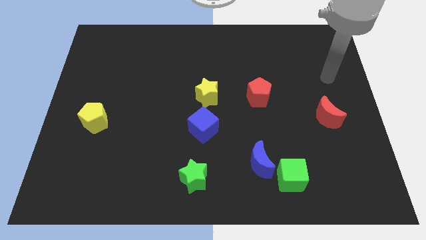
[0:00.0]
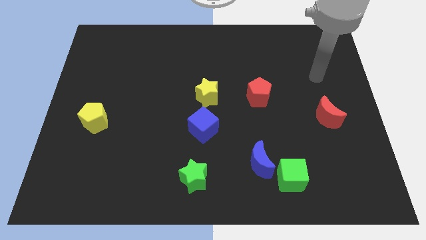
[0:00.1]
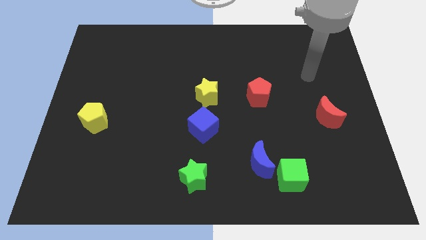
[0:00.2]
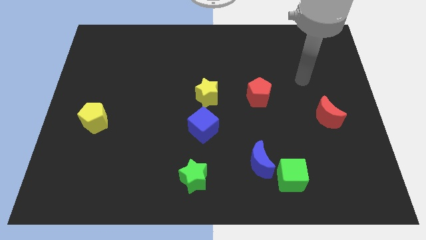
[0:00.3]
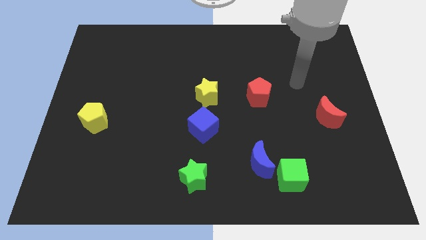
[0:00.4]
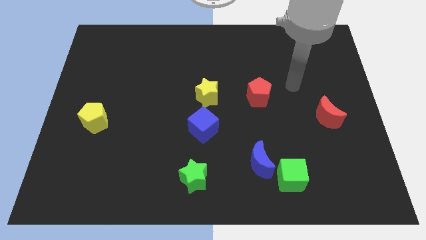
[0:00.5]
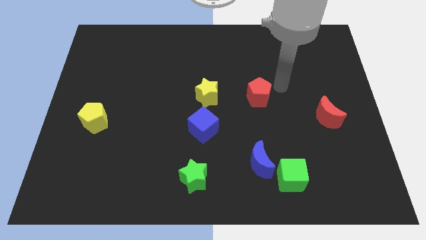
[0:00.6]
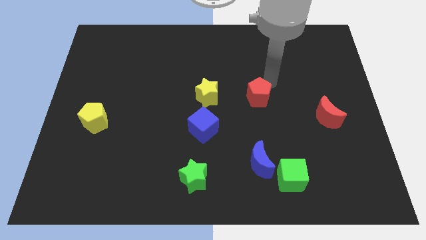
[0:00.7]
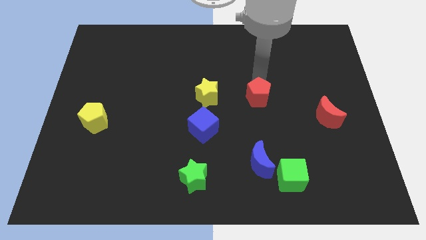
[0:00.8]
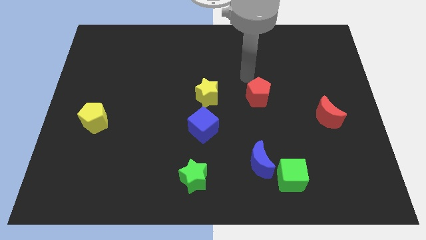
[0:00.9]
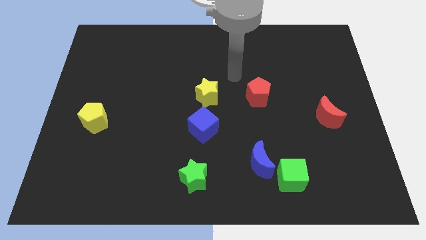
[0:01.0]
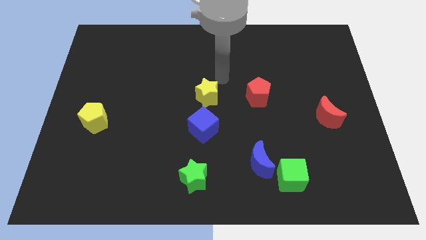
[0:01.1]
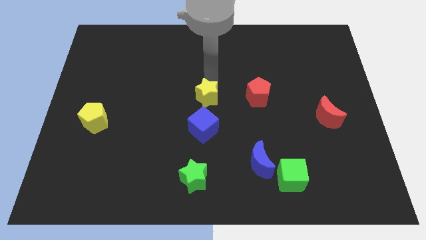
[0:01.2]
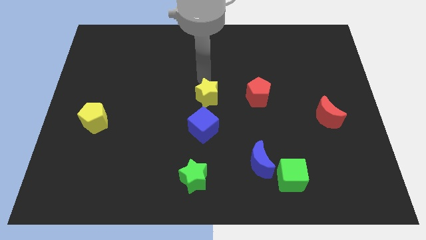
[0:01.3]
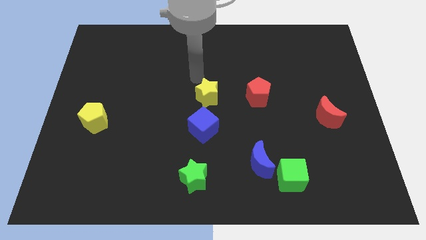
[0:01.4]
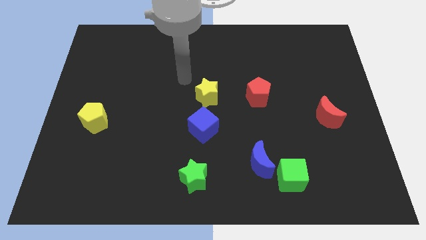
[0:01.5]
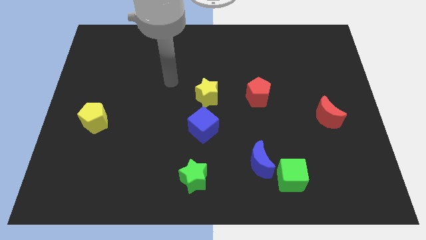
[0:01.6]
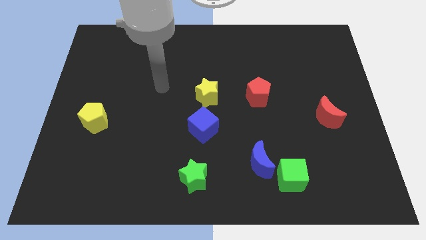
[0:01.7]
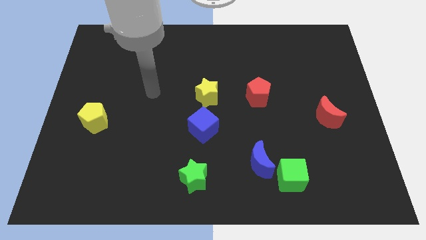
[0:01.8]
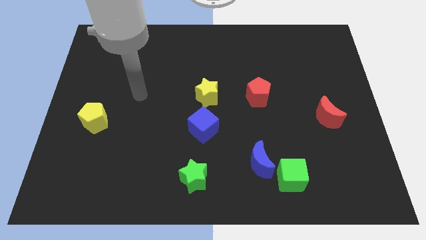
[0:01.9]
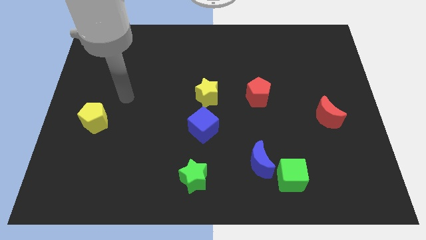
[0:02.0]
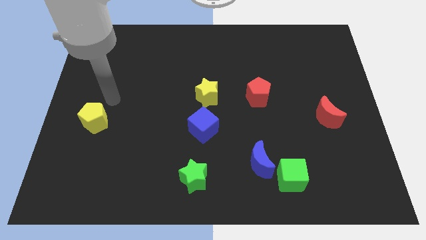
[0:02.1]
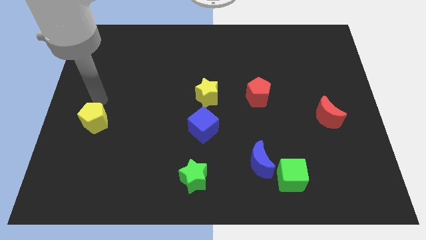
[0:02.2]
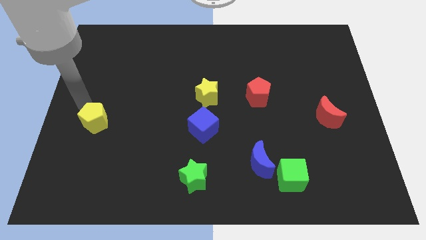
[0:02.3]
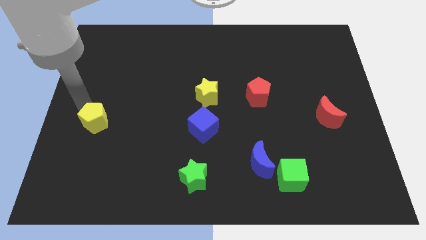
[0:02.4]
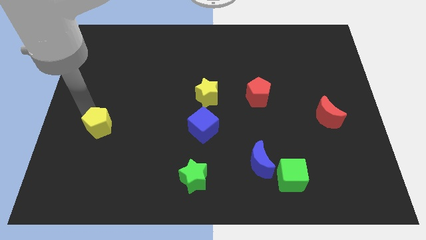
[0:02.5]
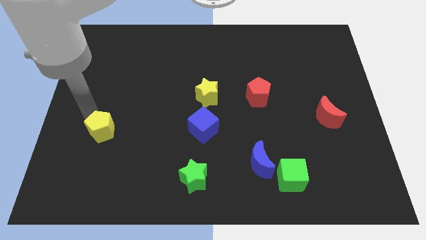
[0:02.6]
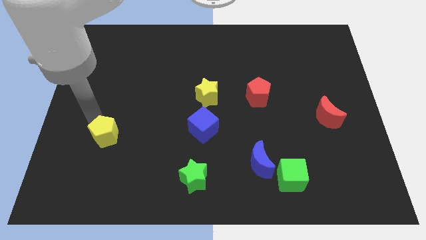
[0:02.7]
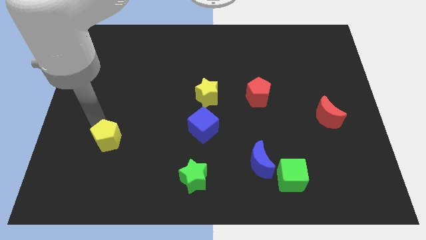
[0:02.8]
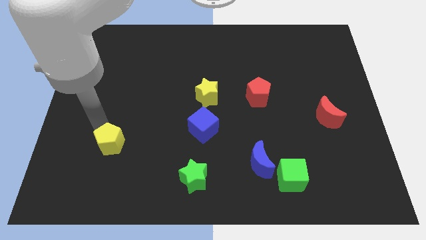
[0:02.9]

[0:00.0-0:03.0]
push the yellow pentagon downwards and then to the right slightly

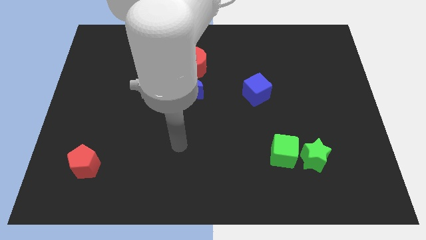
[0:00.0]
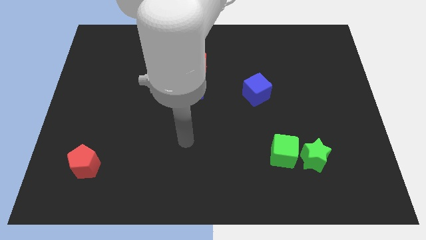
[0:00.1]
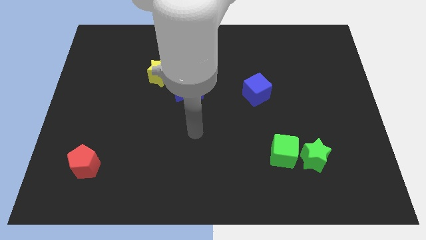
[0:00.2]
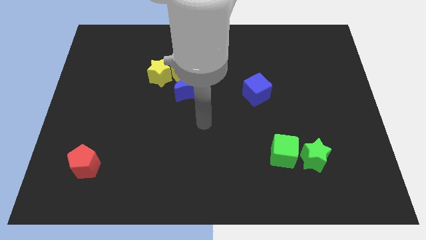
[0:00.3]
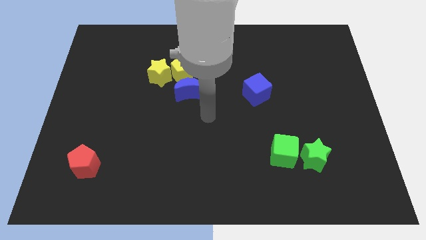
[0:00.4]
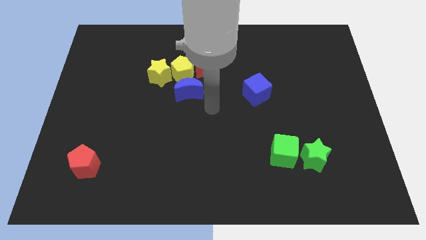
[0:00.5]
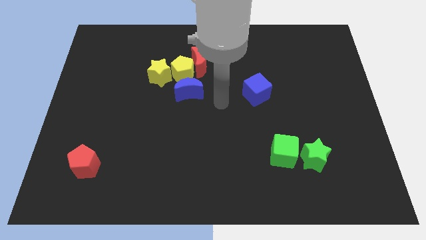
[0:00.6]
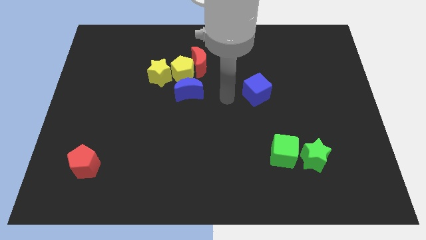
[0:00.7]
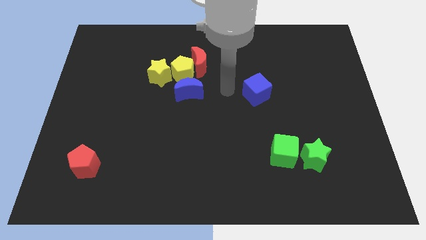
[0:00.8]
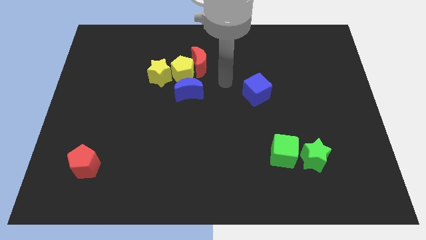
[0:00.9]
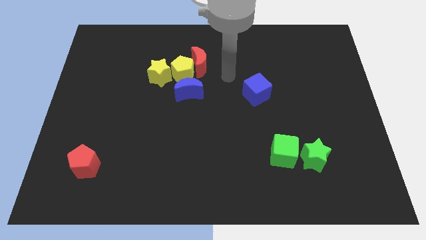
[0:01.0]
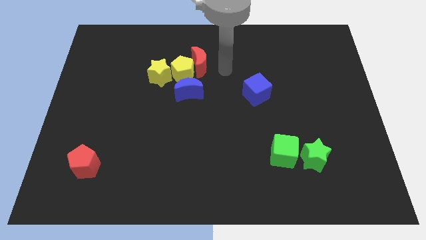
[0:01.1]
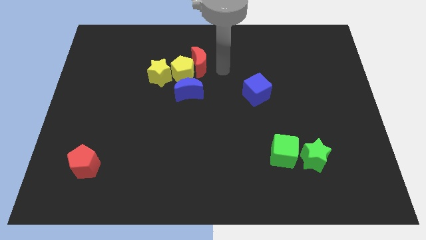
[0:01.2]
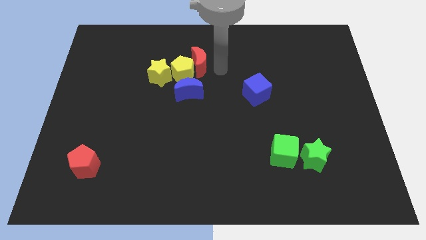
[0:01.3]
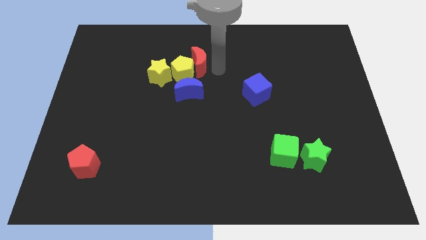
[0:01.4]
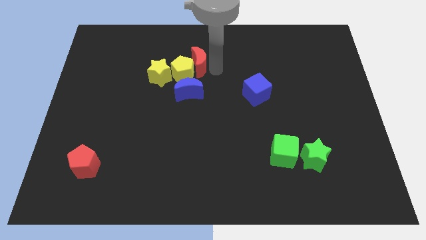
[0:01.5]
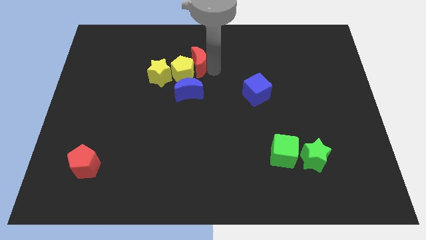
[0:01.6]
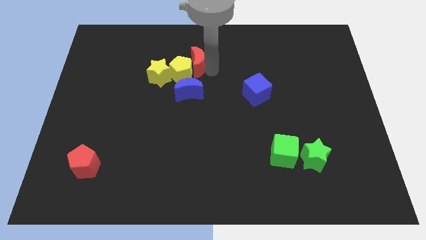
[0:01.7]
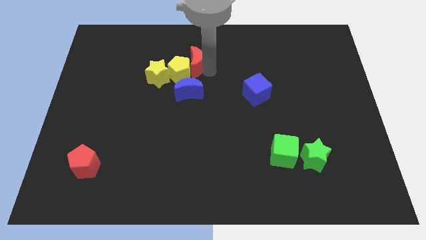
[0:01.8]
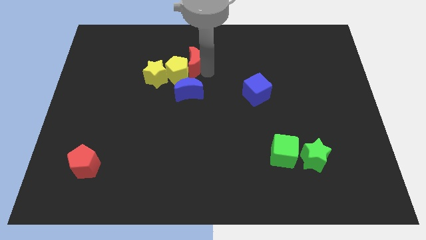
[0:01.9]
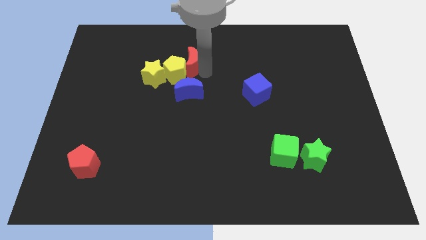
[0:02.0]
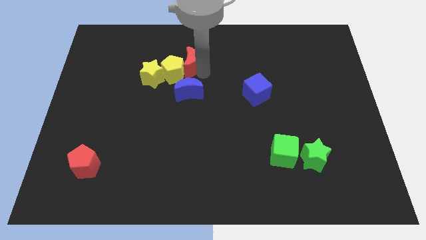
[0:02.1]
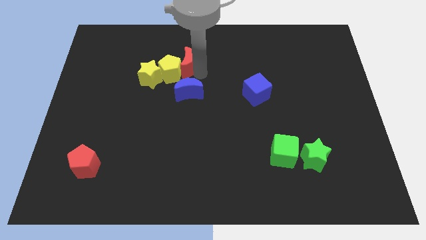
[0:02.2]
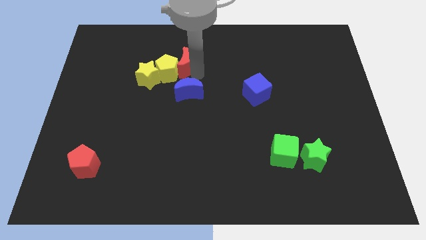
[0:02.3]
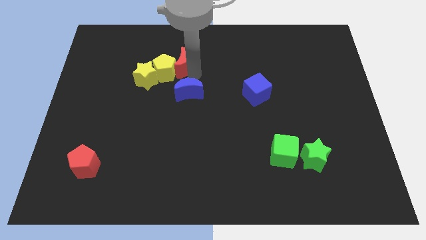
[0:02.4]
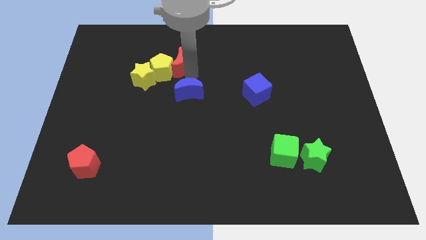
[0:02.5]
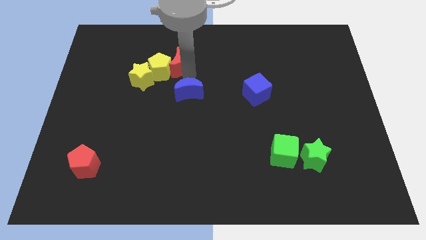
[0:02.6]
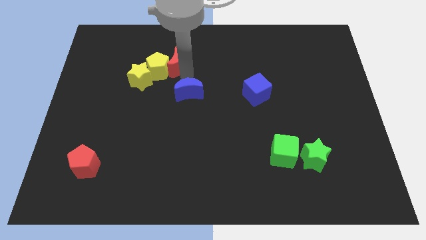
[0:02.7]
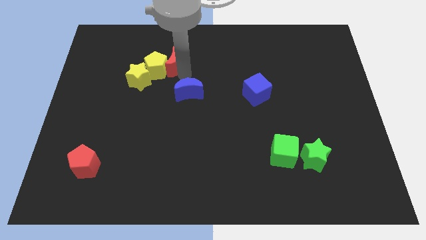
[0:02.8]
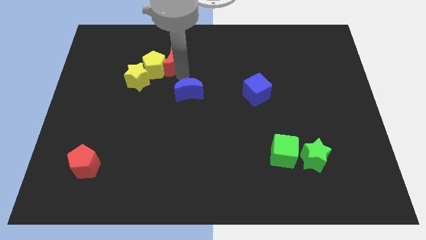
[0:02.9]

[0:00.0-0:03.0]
move the red moon left a little

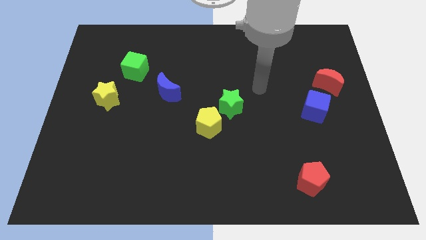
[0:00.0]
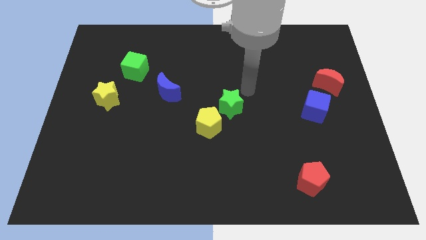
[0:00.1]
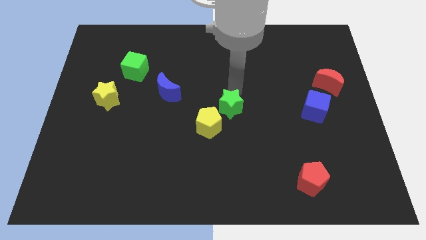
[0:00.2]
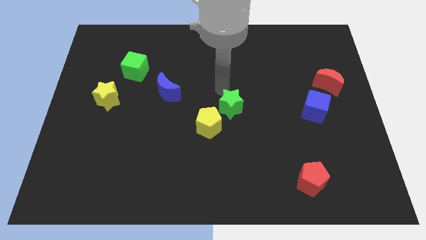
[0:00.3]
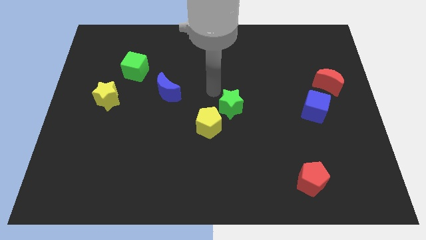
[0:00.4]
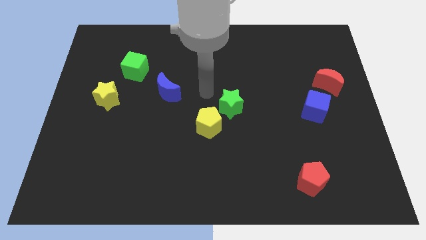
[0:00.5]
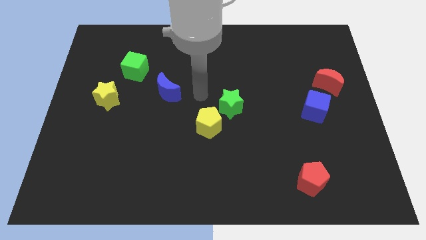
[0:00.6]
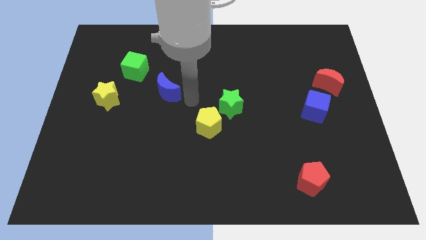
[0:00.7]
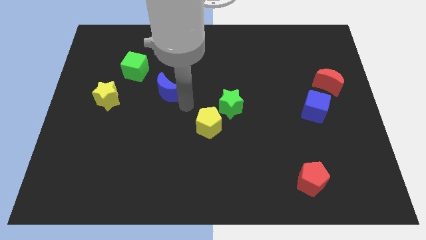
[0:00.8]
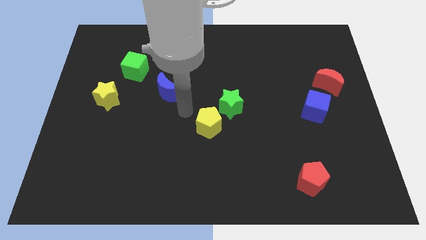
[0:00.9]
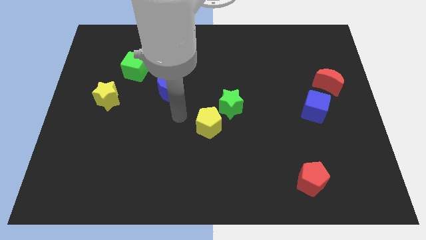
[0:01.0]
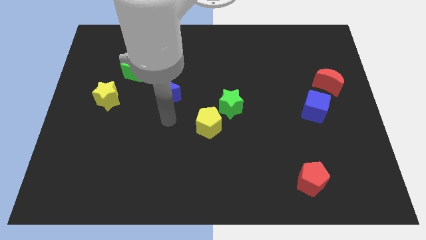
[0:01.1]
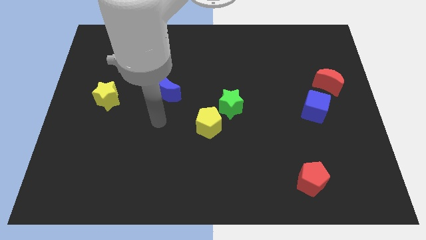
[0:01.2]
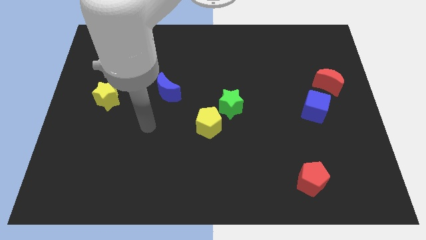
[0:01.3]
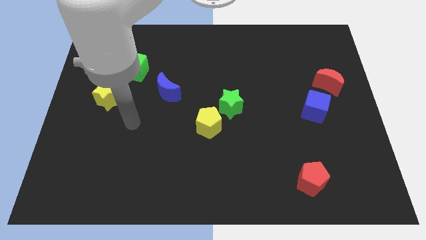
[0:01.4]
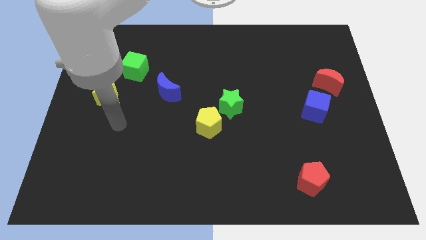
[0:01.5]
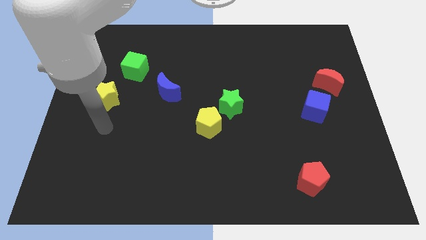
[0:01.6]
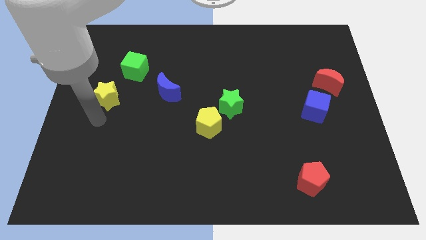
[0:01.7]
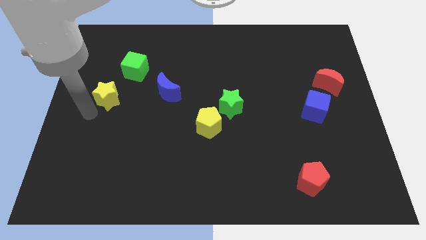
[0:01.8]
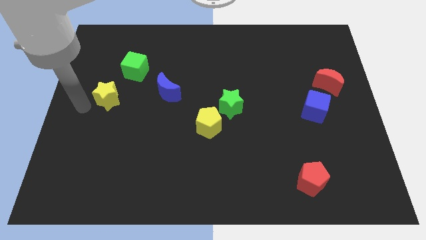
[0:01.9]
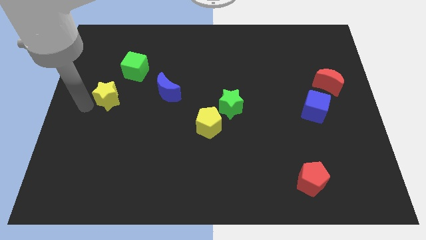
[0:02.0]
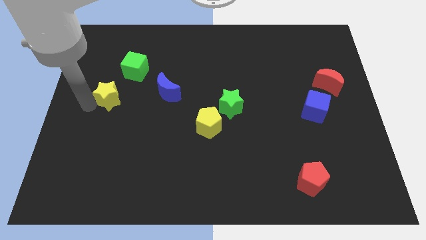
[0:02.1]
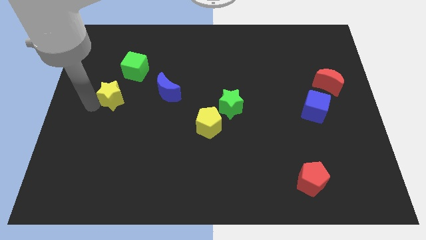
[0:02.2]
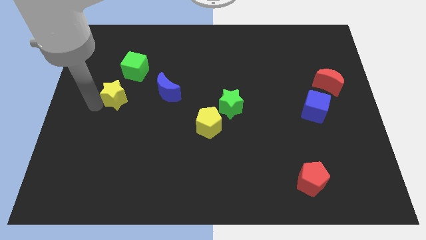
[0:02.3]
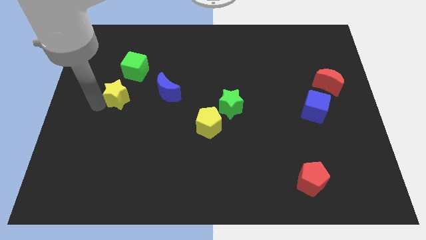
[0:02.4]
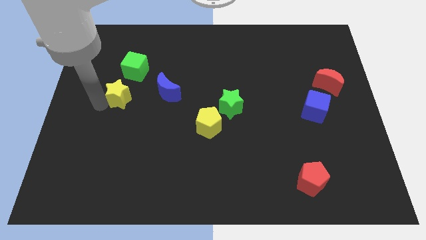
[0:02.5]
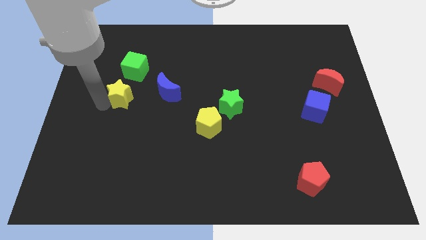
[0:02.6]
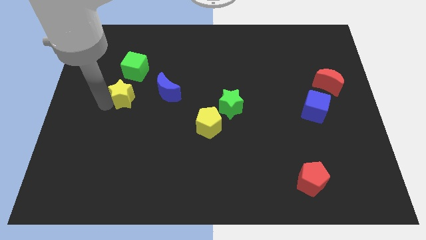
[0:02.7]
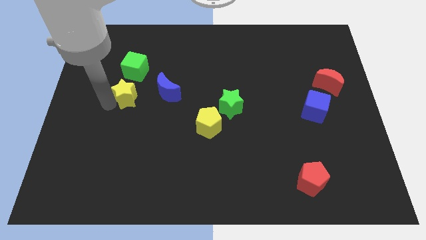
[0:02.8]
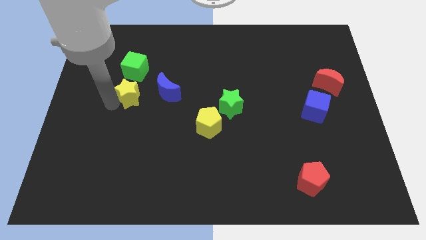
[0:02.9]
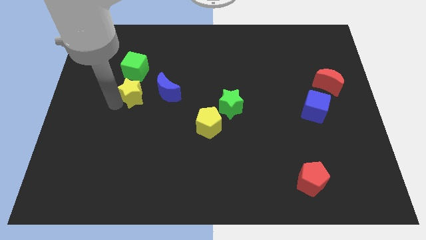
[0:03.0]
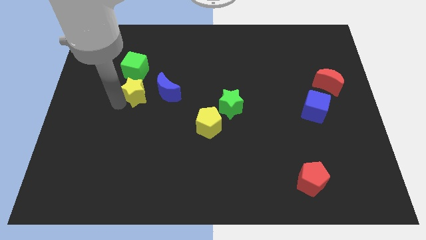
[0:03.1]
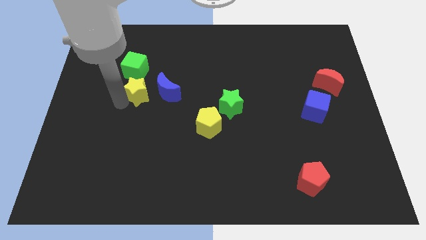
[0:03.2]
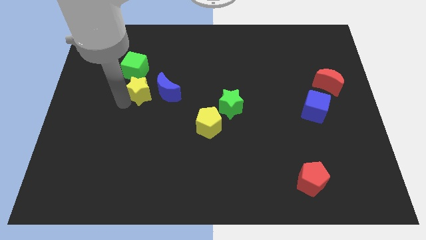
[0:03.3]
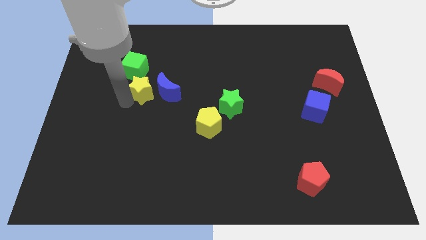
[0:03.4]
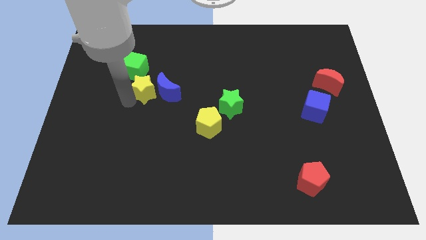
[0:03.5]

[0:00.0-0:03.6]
move the yellow star diagonally up and right somewhat
